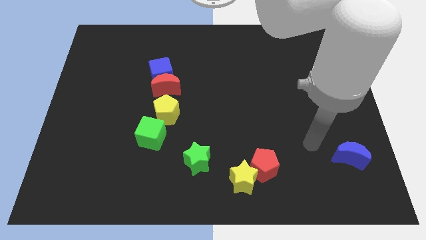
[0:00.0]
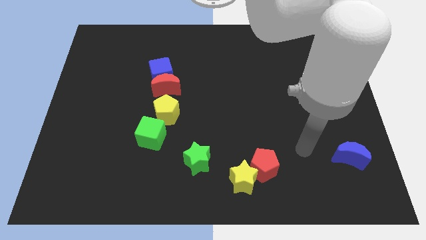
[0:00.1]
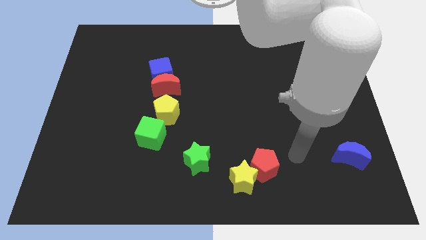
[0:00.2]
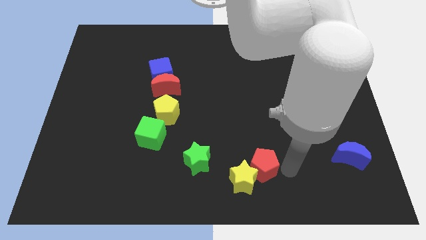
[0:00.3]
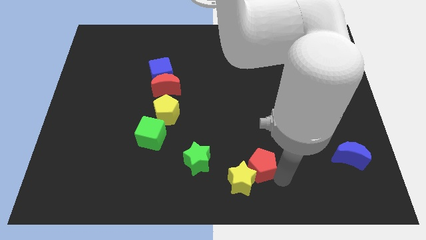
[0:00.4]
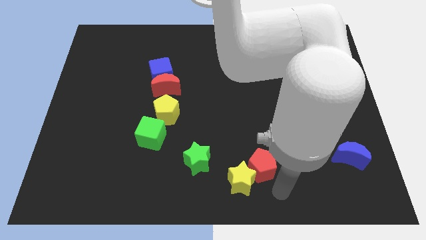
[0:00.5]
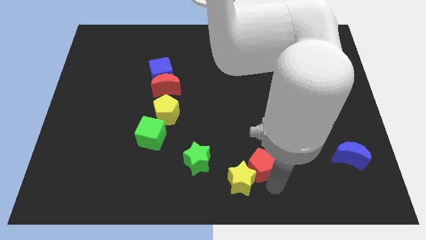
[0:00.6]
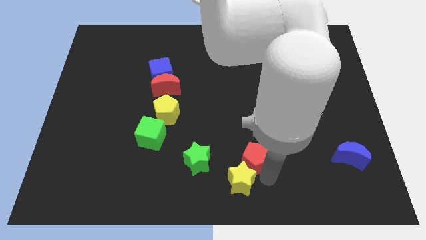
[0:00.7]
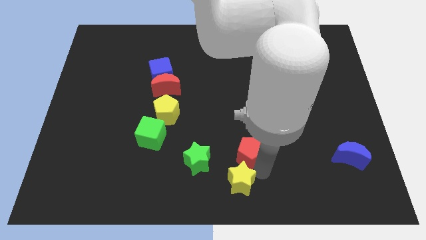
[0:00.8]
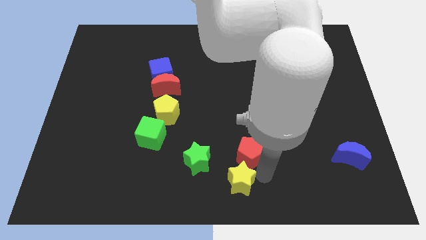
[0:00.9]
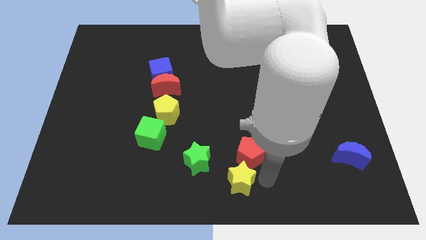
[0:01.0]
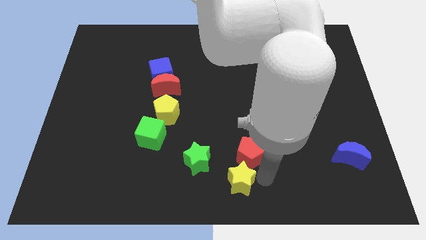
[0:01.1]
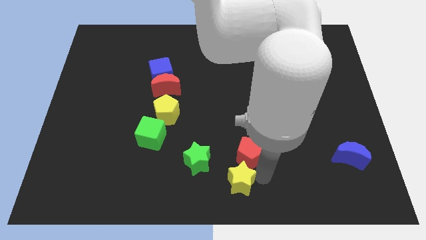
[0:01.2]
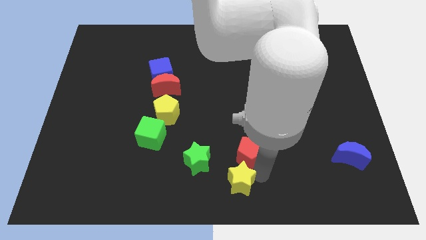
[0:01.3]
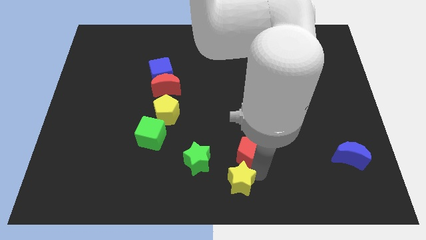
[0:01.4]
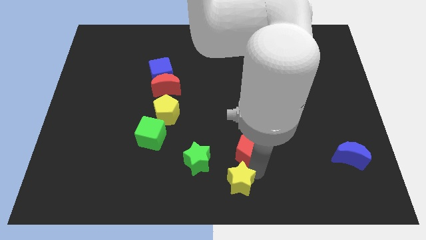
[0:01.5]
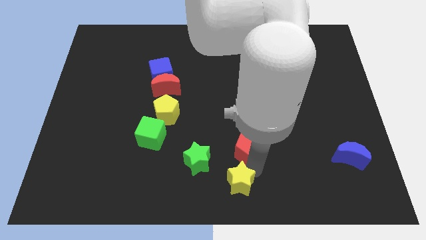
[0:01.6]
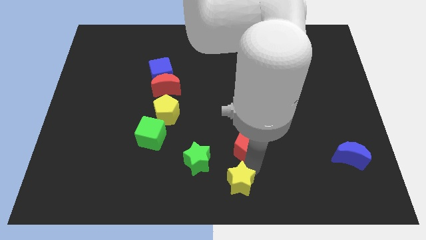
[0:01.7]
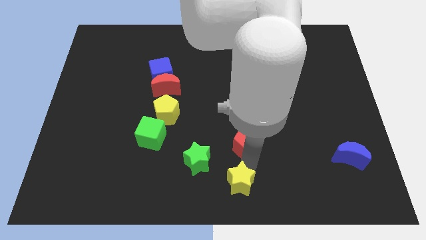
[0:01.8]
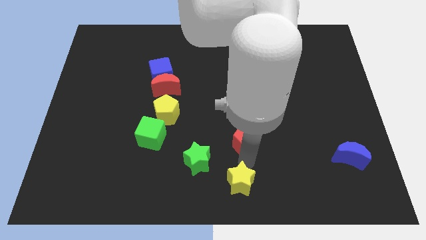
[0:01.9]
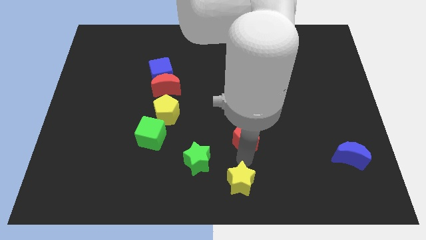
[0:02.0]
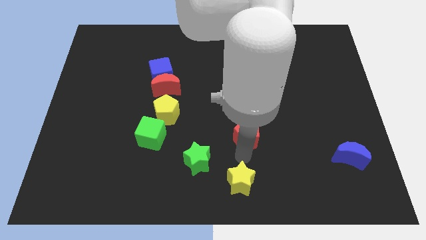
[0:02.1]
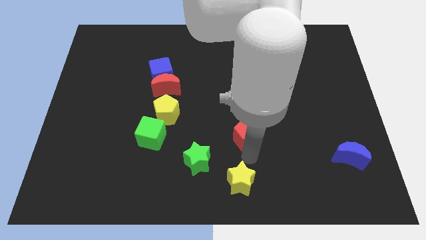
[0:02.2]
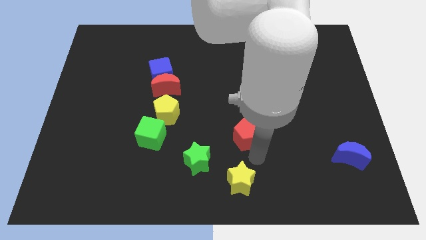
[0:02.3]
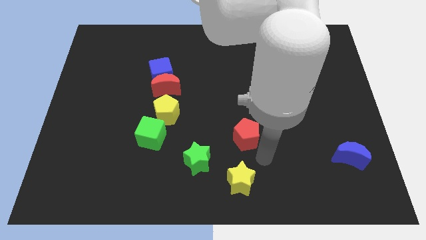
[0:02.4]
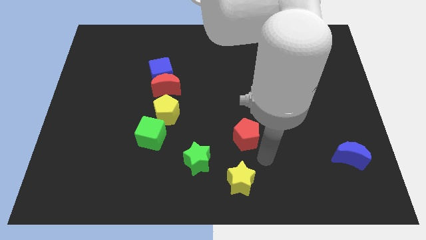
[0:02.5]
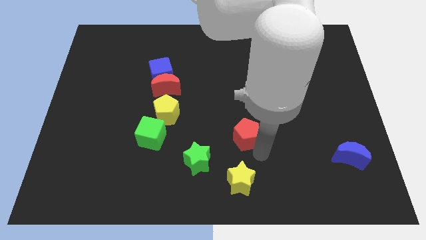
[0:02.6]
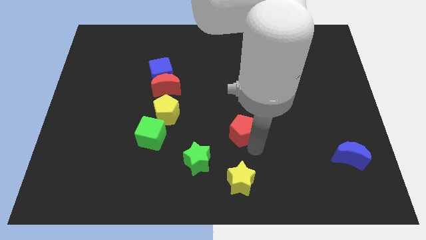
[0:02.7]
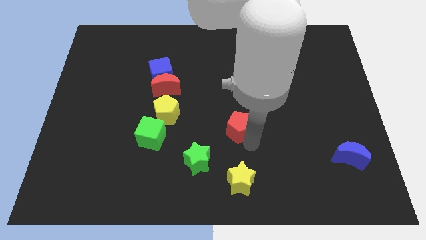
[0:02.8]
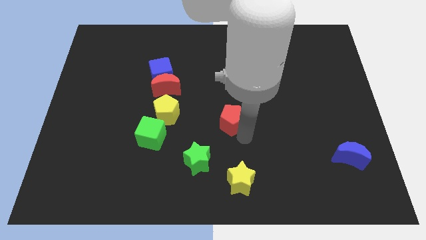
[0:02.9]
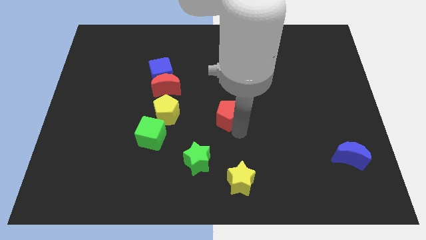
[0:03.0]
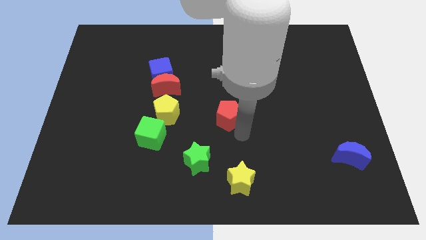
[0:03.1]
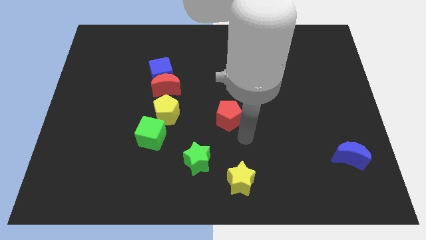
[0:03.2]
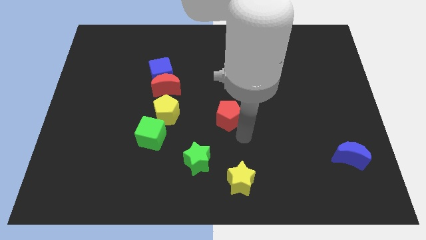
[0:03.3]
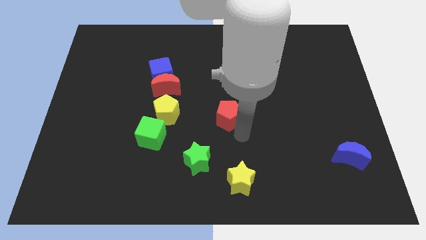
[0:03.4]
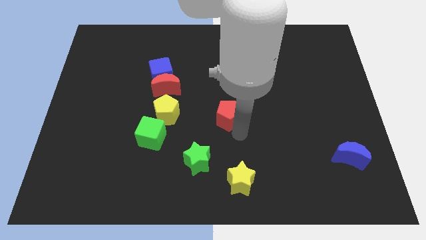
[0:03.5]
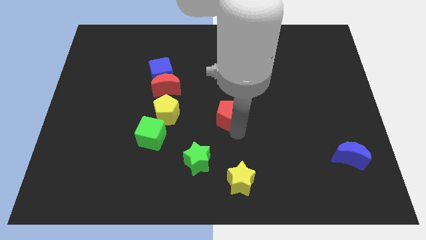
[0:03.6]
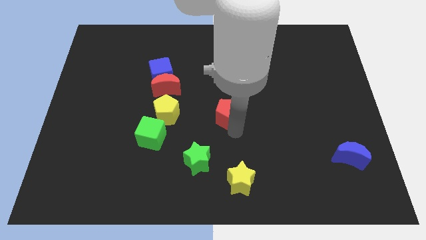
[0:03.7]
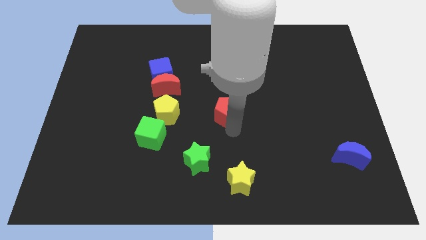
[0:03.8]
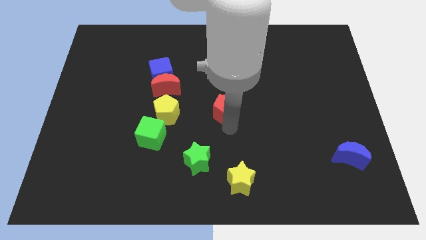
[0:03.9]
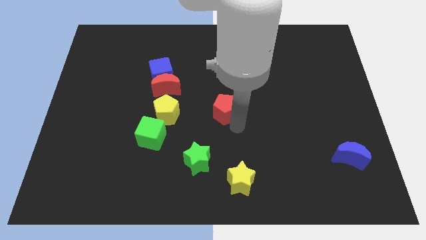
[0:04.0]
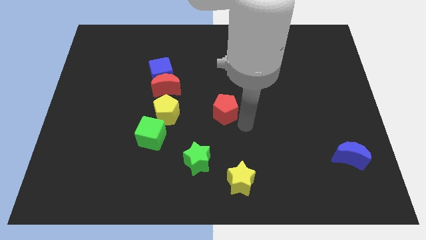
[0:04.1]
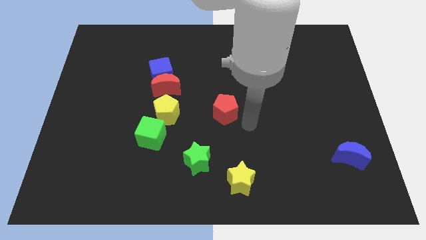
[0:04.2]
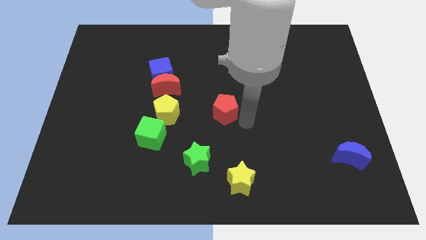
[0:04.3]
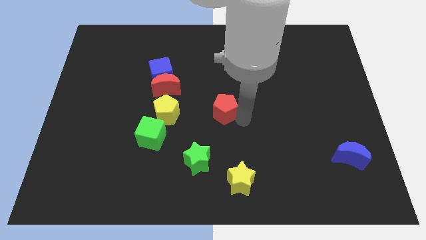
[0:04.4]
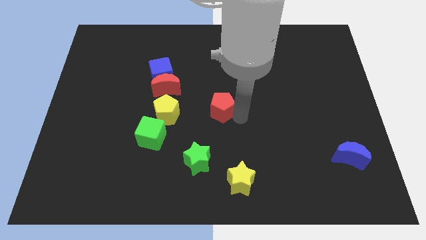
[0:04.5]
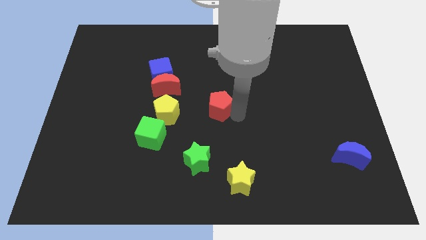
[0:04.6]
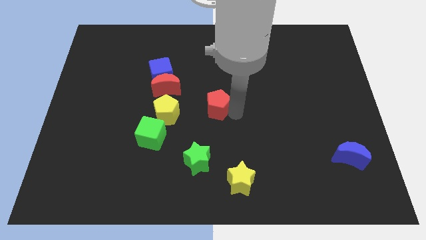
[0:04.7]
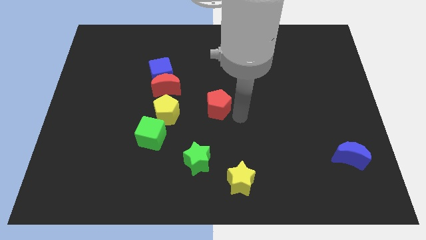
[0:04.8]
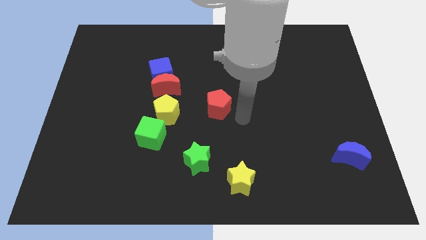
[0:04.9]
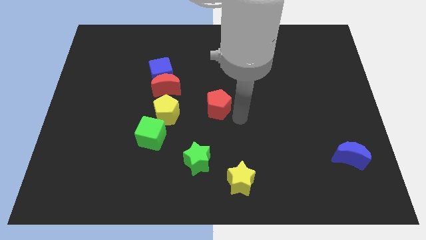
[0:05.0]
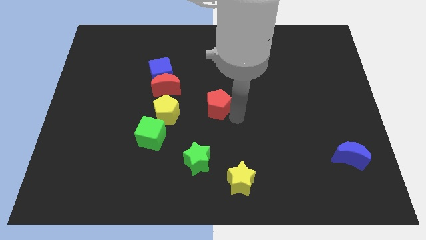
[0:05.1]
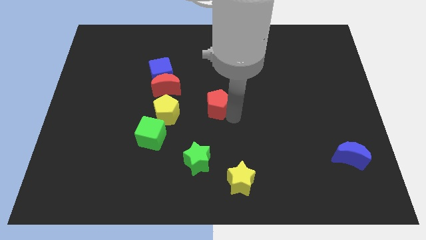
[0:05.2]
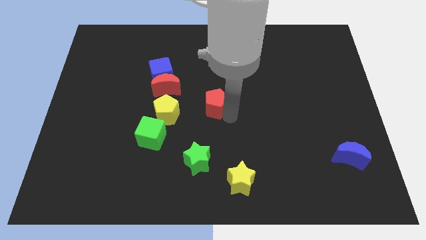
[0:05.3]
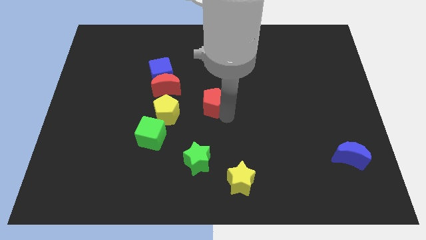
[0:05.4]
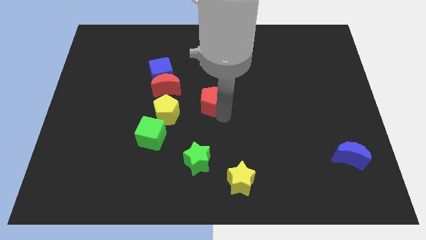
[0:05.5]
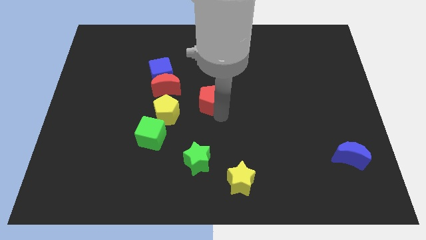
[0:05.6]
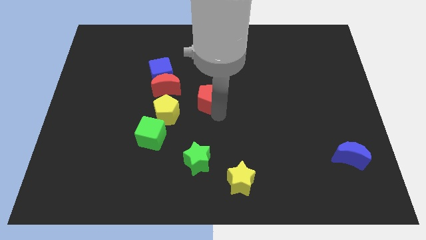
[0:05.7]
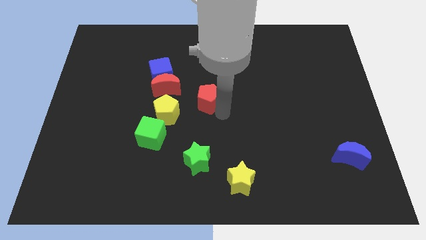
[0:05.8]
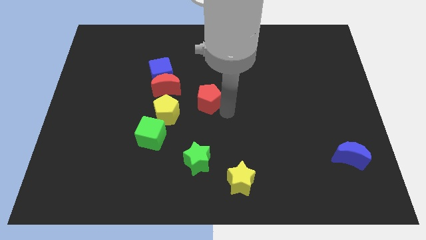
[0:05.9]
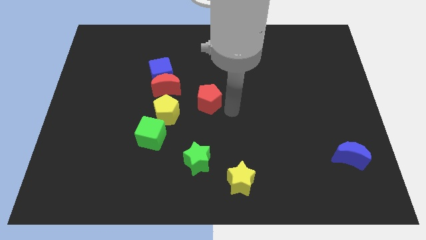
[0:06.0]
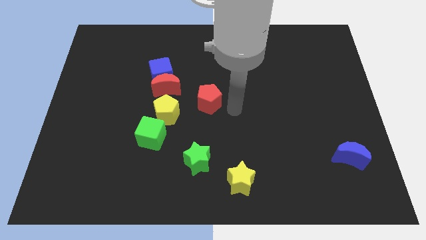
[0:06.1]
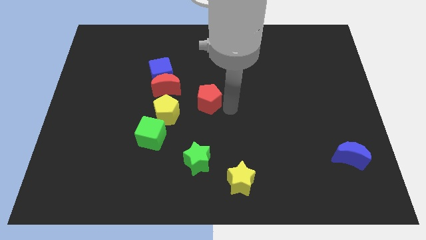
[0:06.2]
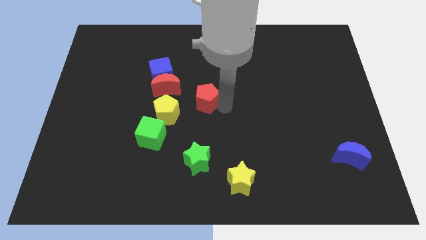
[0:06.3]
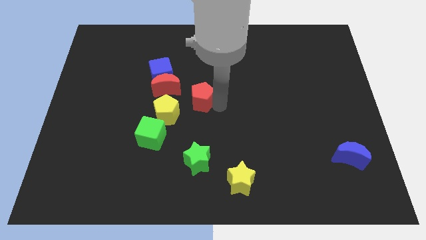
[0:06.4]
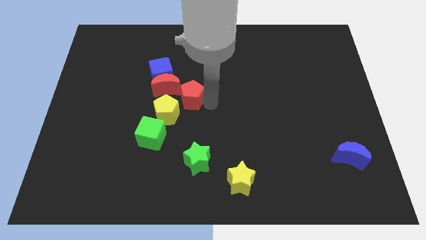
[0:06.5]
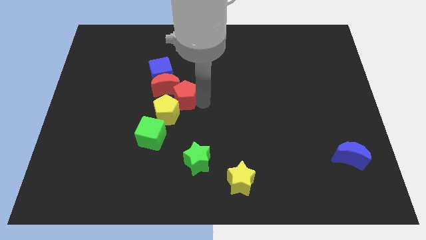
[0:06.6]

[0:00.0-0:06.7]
slide the red pentagon close to the red moon

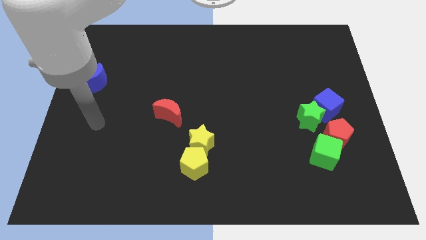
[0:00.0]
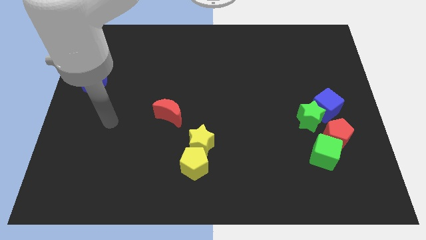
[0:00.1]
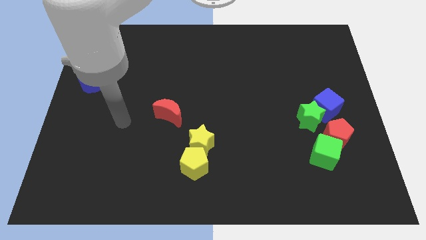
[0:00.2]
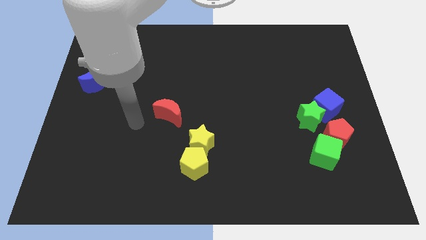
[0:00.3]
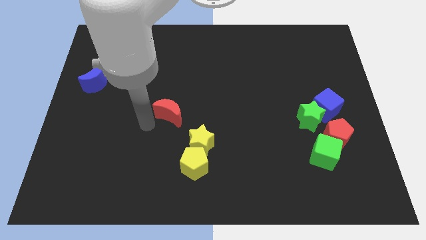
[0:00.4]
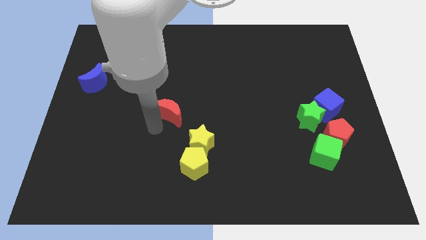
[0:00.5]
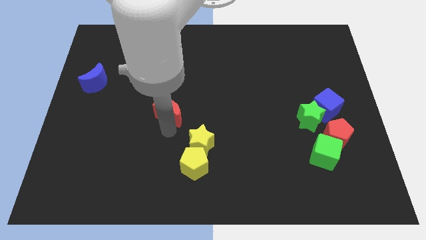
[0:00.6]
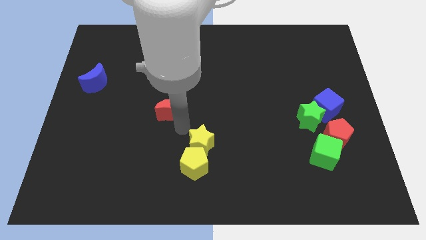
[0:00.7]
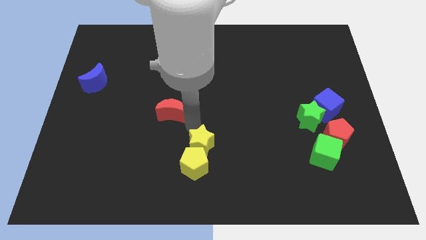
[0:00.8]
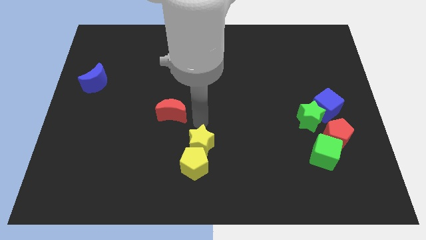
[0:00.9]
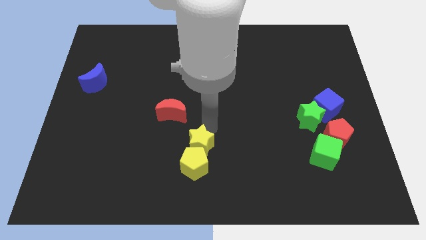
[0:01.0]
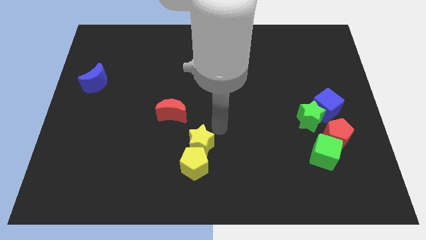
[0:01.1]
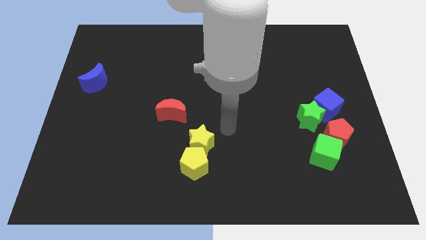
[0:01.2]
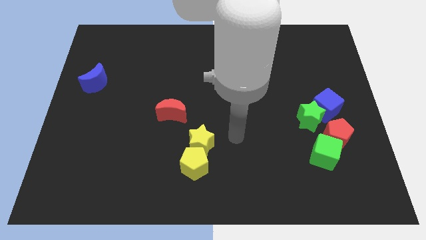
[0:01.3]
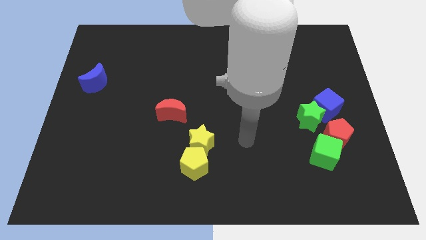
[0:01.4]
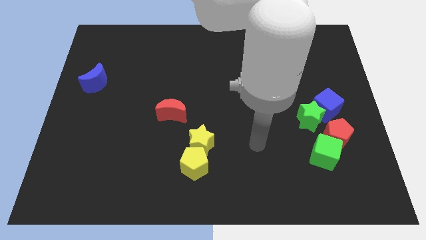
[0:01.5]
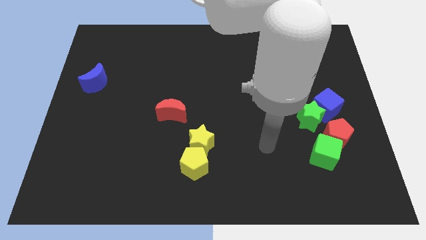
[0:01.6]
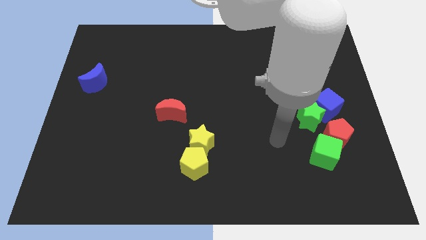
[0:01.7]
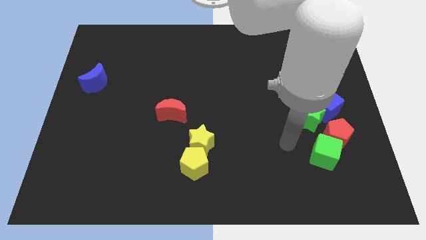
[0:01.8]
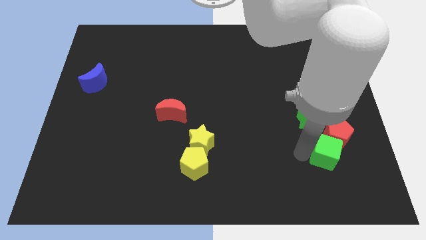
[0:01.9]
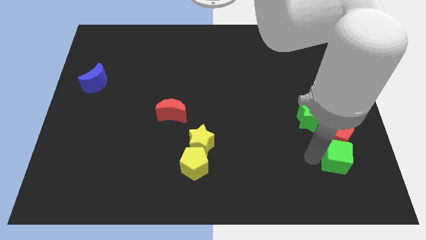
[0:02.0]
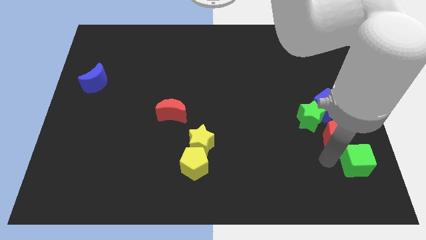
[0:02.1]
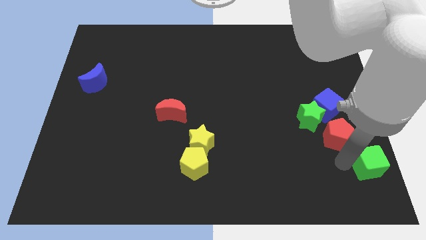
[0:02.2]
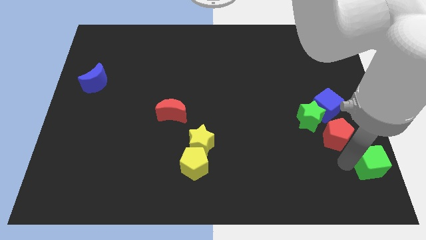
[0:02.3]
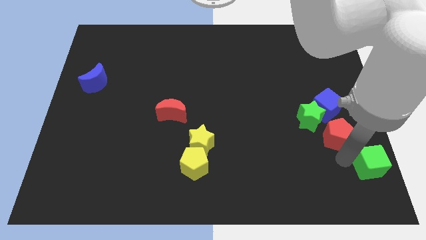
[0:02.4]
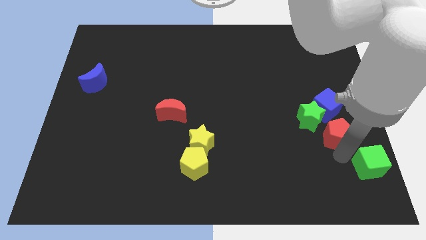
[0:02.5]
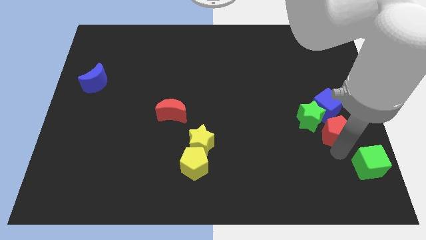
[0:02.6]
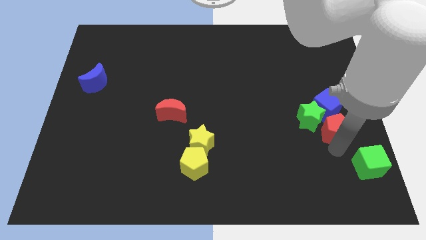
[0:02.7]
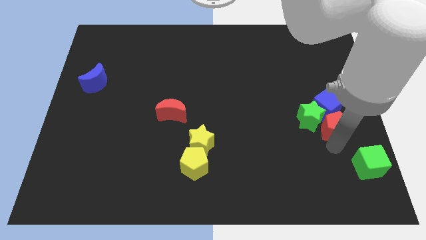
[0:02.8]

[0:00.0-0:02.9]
slide the red pentagon next to the blue cube
